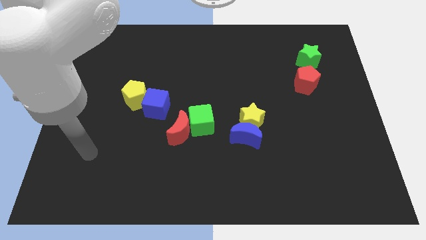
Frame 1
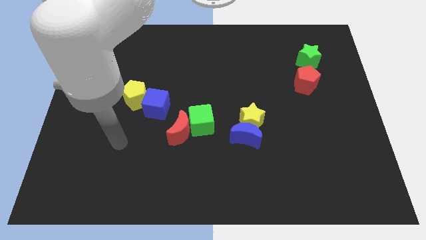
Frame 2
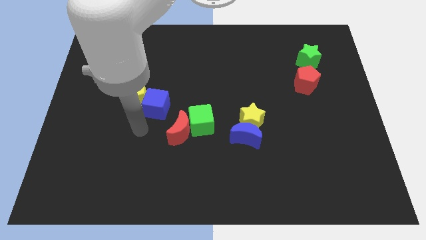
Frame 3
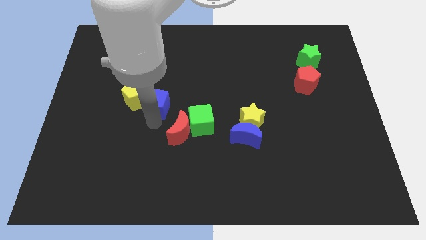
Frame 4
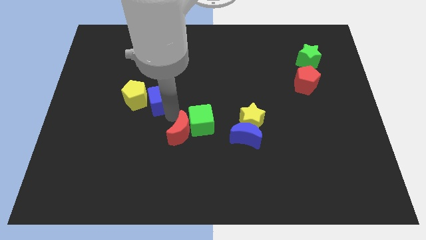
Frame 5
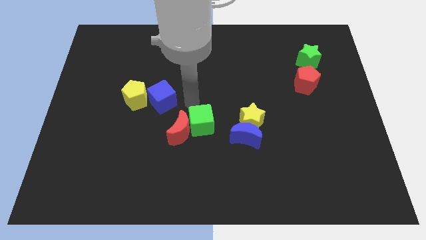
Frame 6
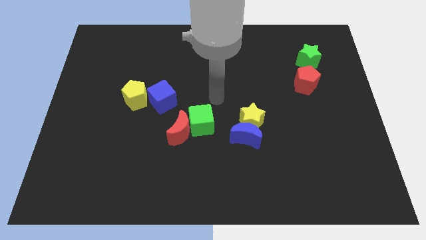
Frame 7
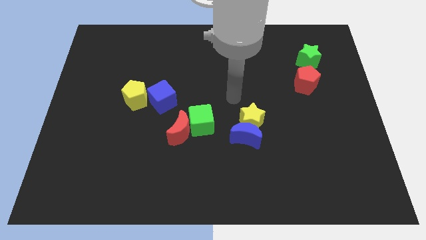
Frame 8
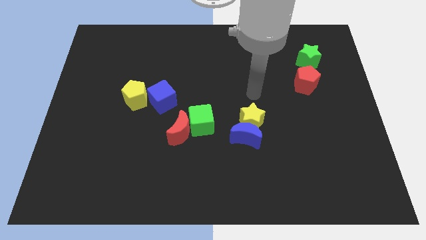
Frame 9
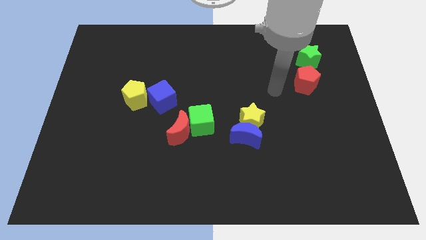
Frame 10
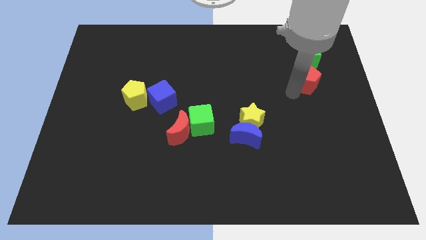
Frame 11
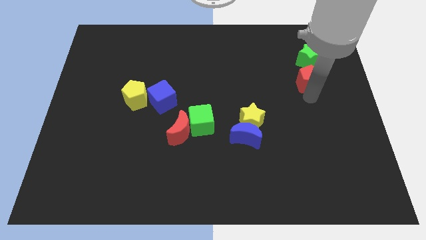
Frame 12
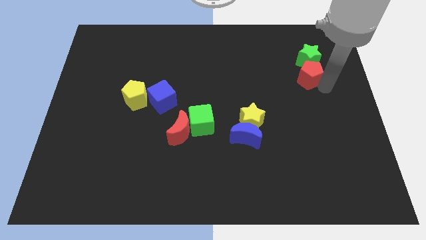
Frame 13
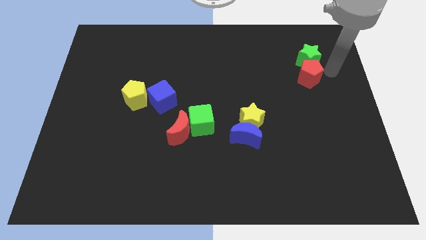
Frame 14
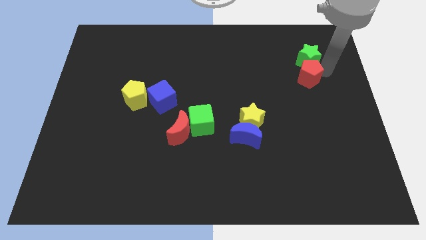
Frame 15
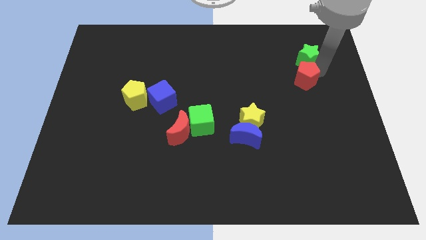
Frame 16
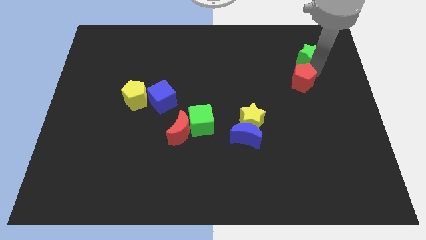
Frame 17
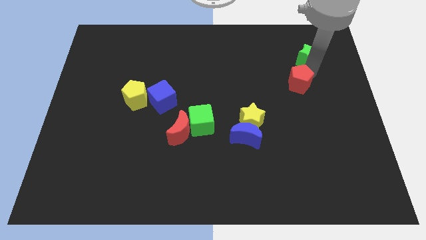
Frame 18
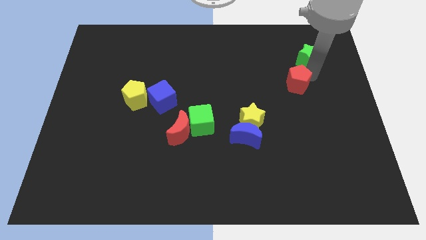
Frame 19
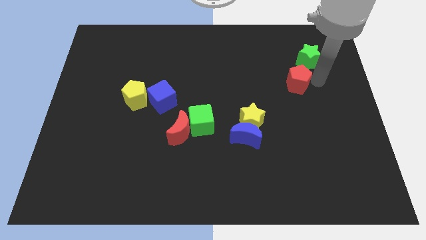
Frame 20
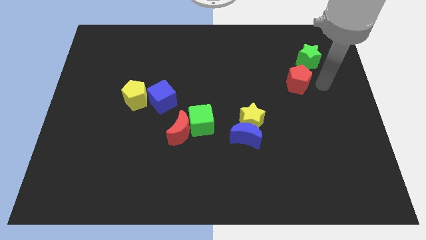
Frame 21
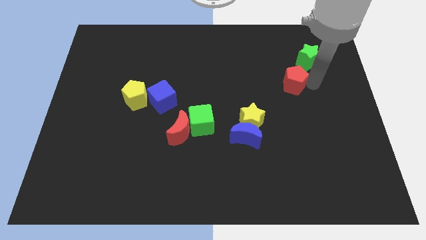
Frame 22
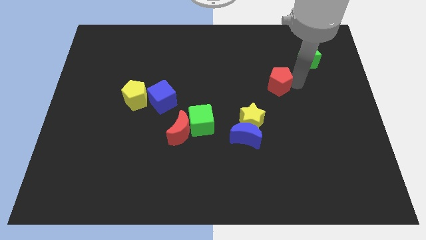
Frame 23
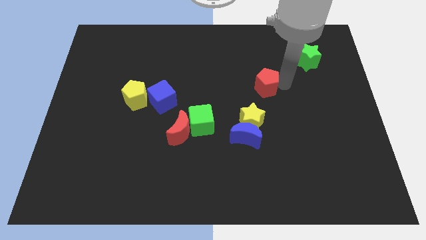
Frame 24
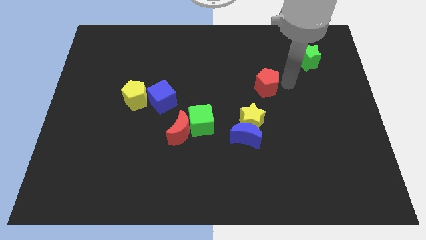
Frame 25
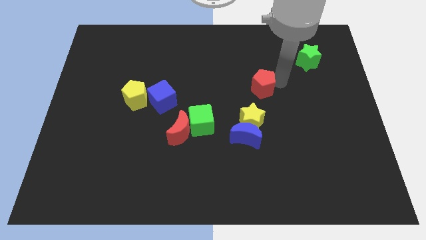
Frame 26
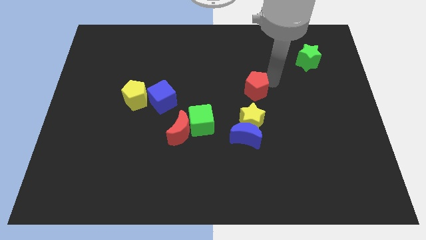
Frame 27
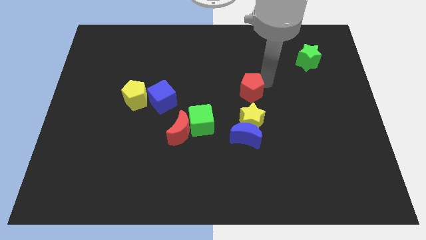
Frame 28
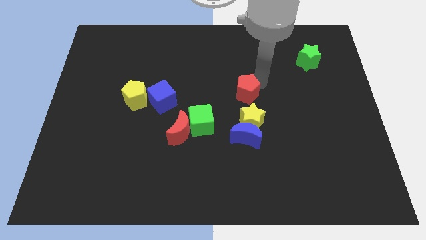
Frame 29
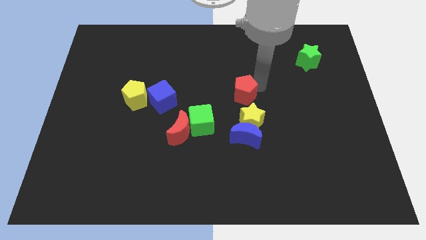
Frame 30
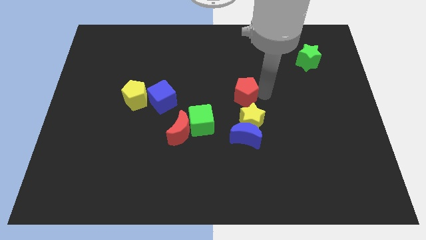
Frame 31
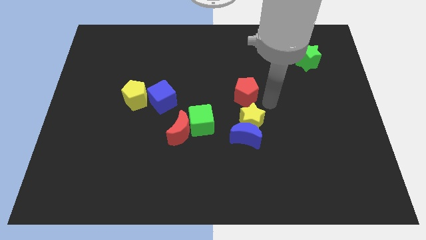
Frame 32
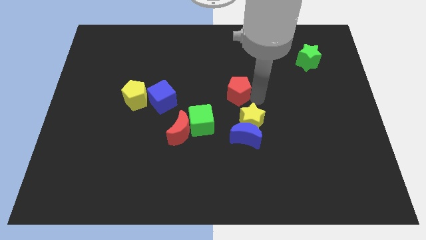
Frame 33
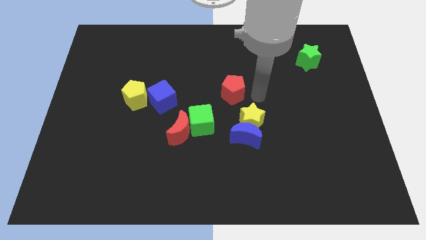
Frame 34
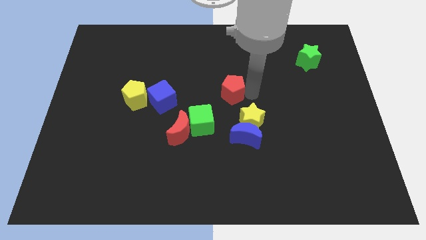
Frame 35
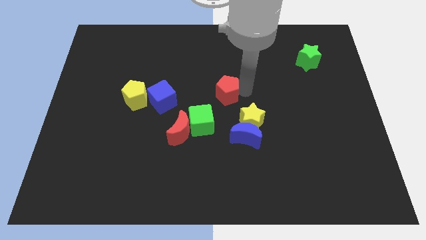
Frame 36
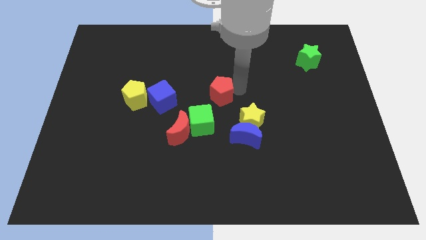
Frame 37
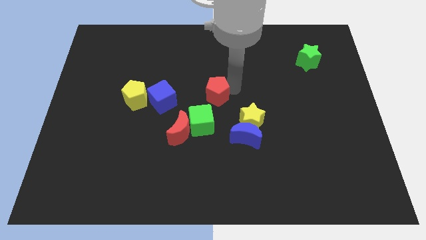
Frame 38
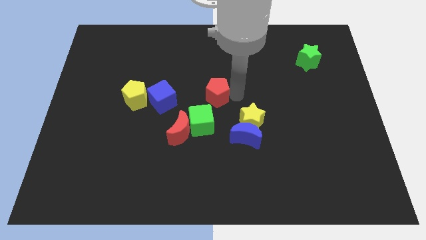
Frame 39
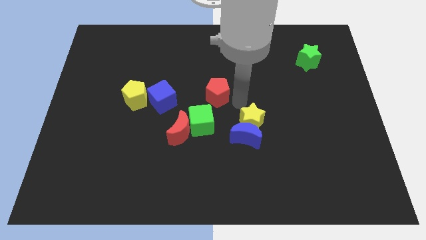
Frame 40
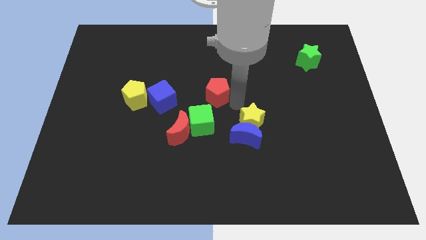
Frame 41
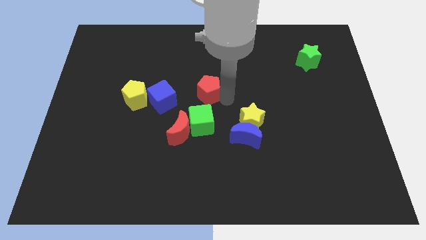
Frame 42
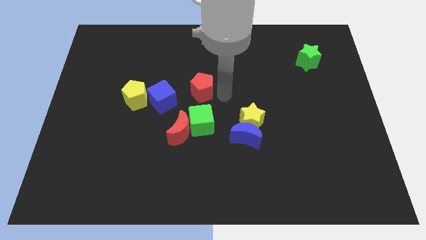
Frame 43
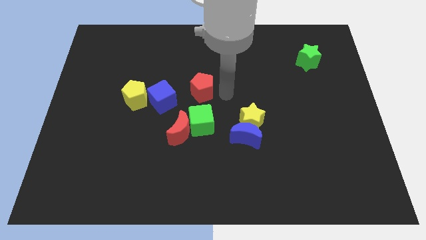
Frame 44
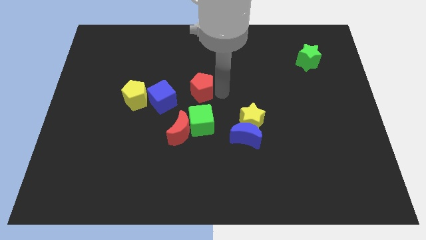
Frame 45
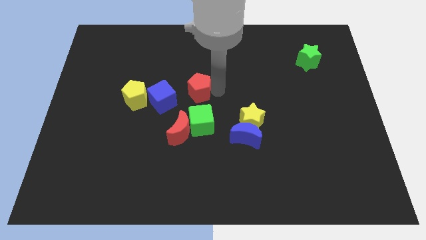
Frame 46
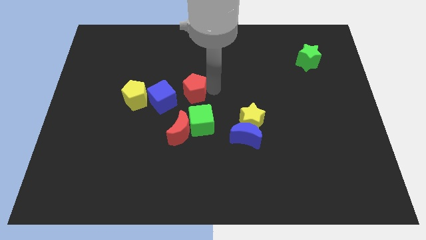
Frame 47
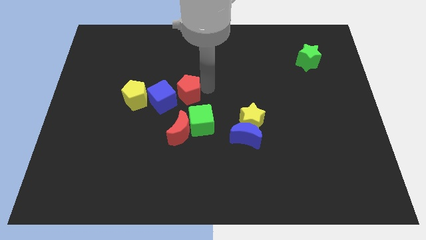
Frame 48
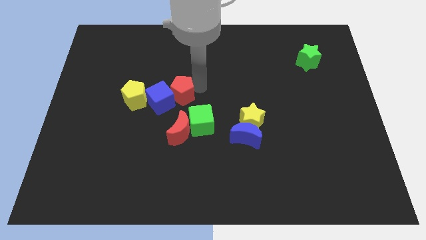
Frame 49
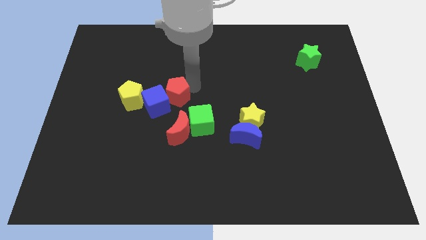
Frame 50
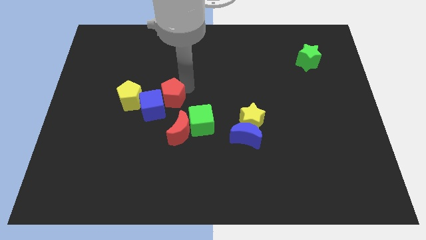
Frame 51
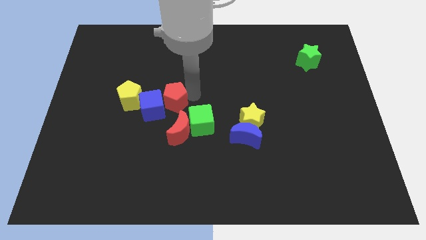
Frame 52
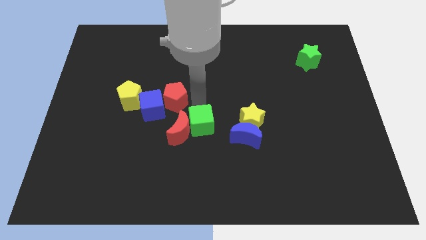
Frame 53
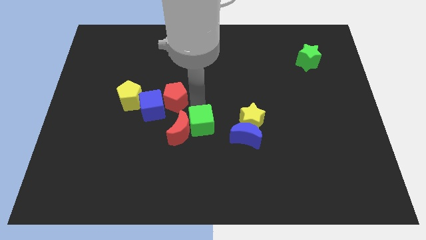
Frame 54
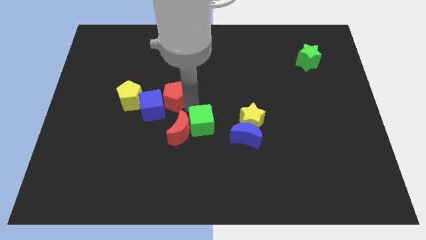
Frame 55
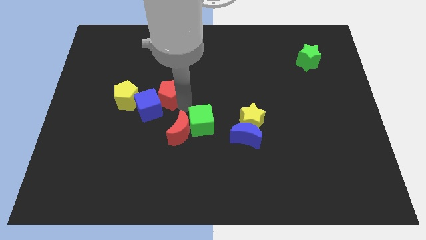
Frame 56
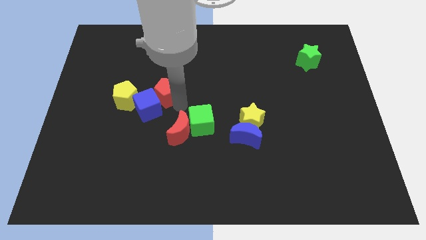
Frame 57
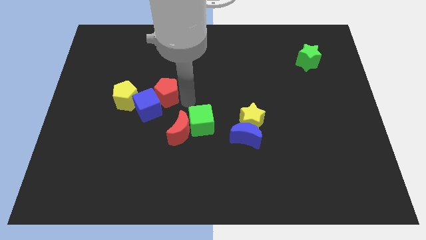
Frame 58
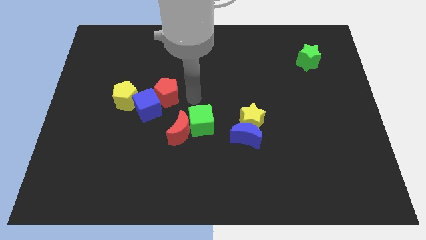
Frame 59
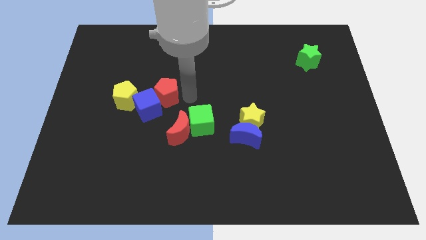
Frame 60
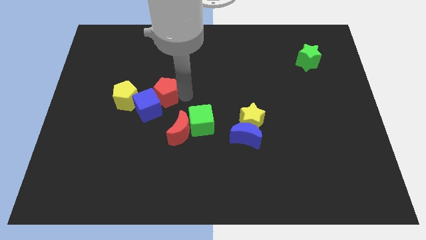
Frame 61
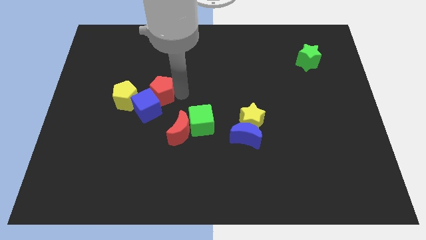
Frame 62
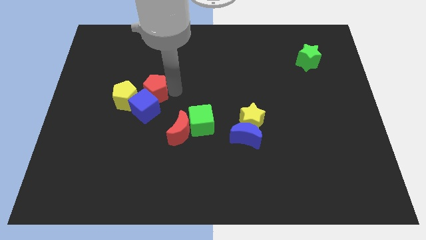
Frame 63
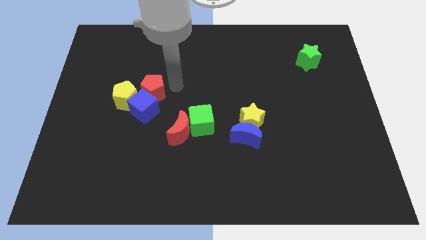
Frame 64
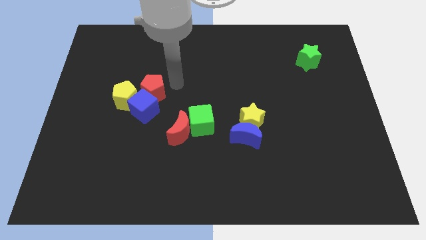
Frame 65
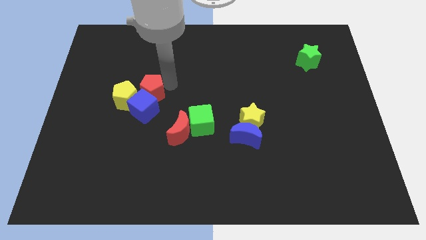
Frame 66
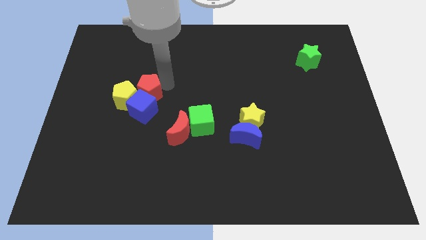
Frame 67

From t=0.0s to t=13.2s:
move the red pentagon close to the yellow pentagon
